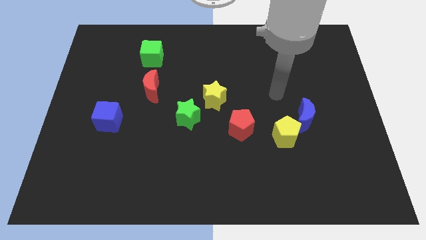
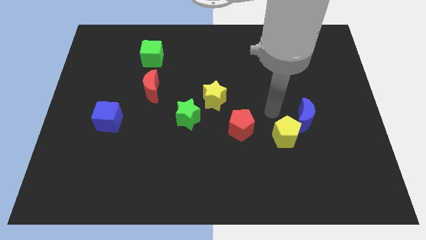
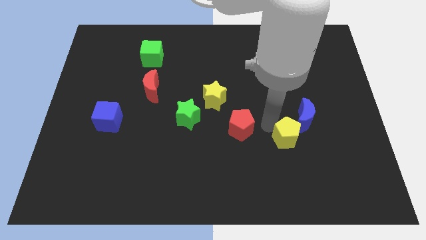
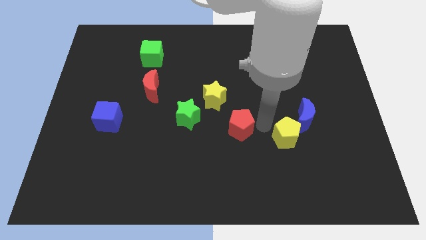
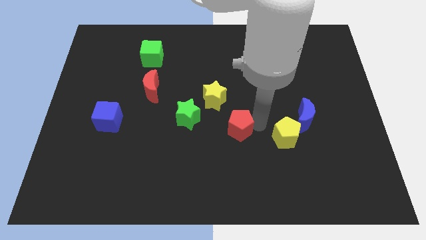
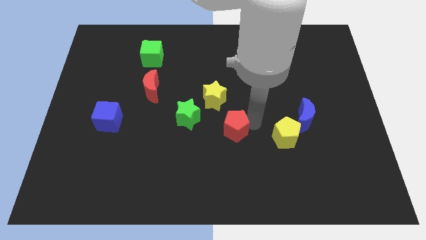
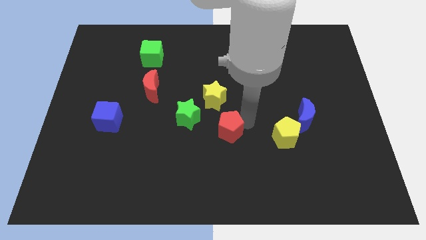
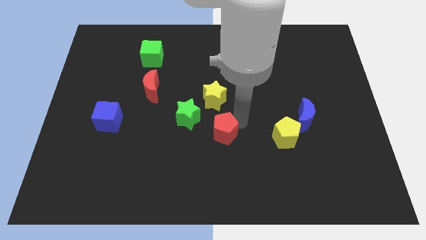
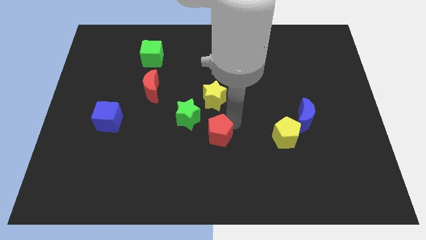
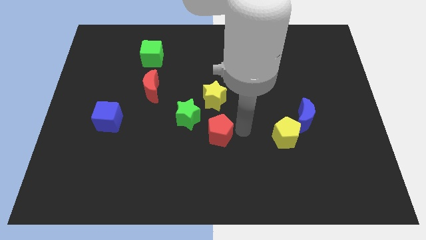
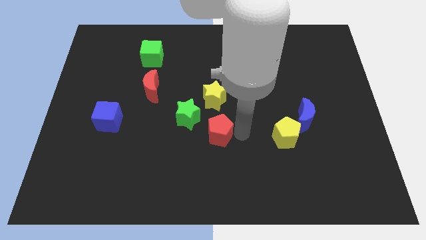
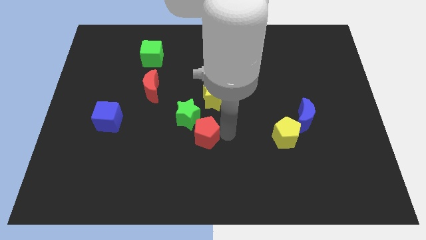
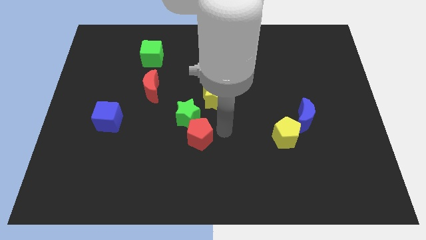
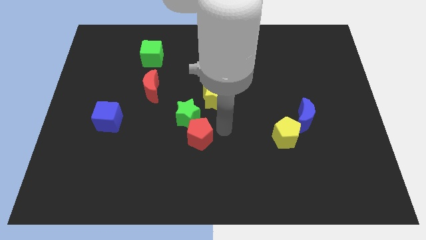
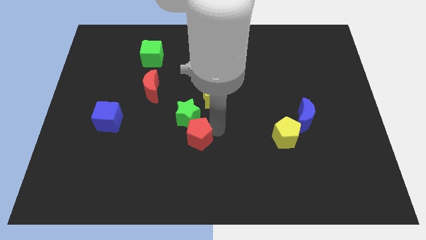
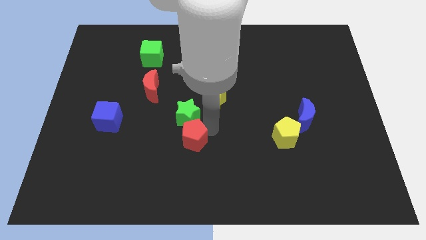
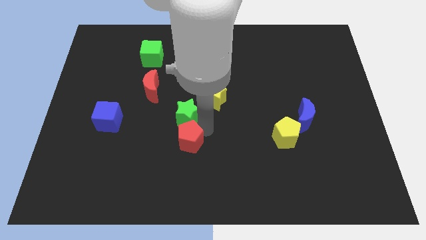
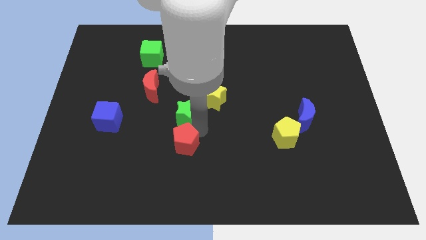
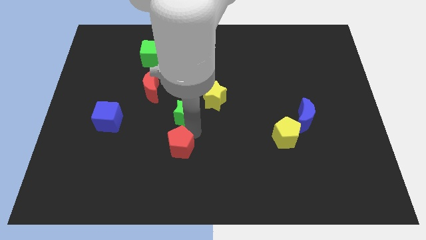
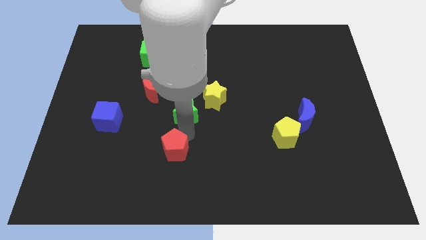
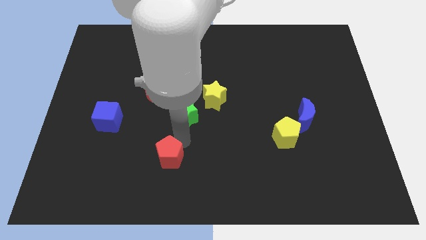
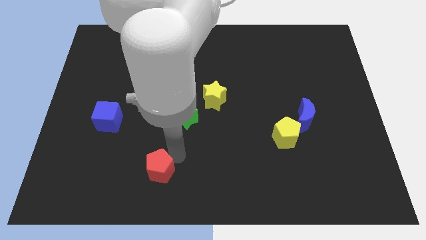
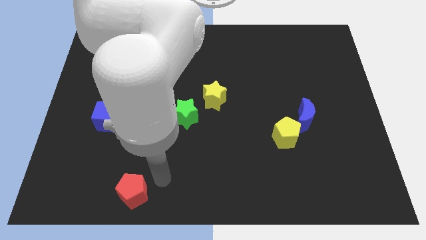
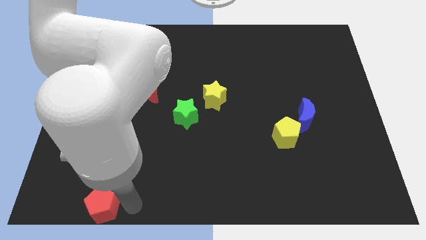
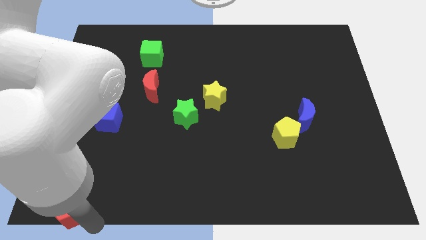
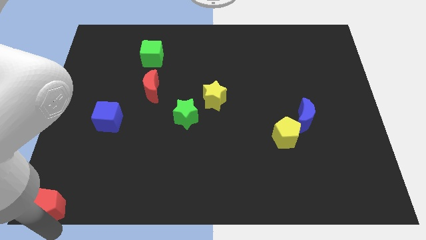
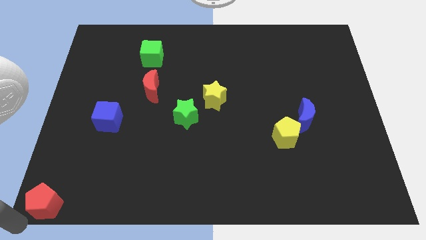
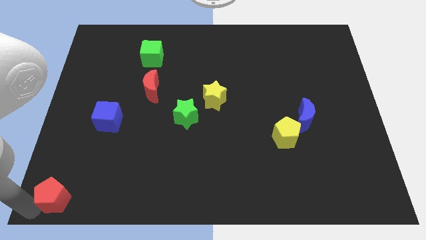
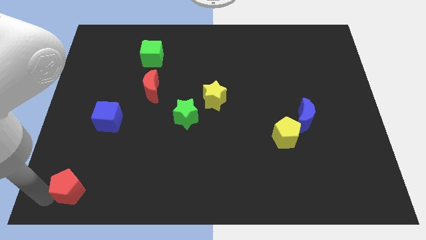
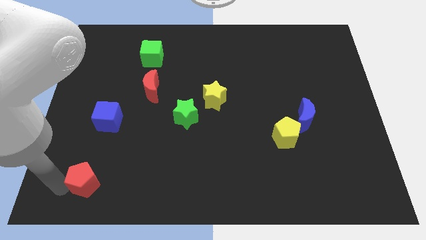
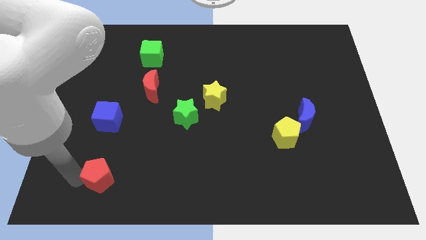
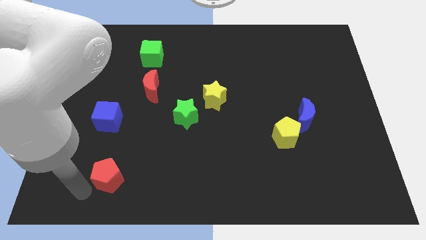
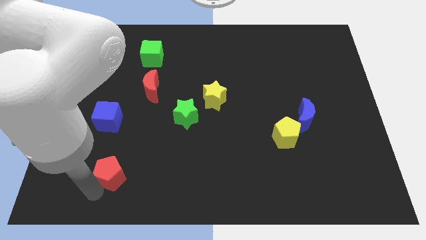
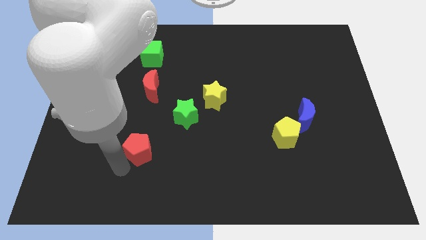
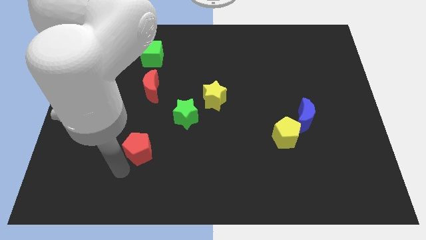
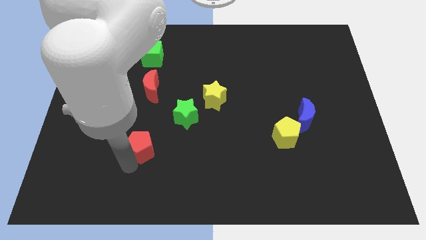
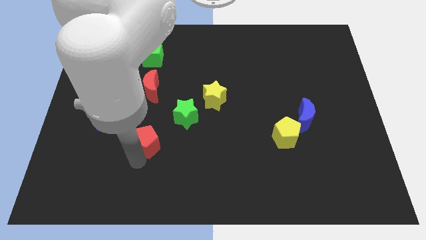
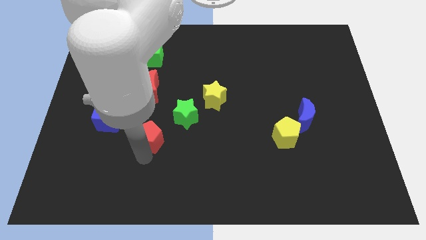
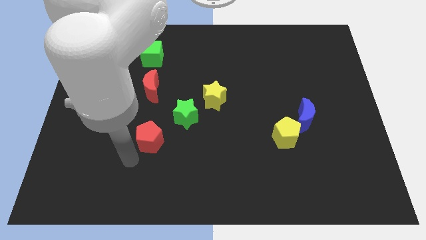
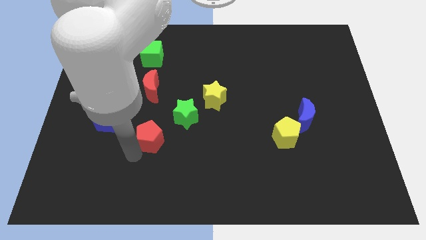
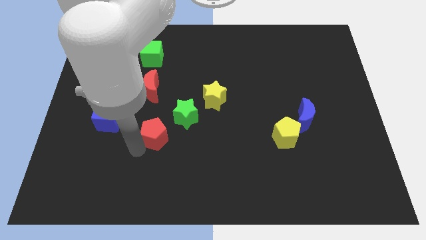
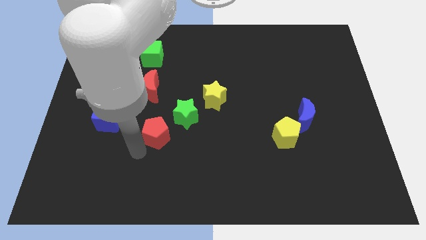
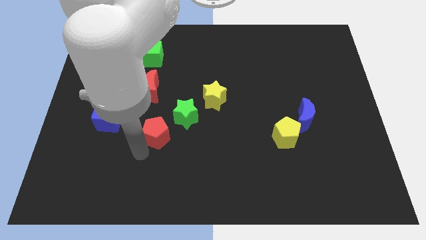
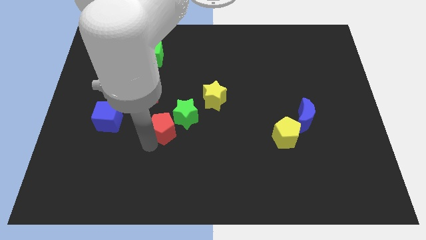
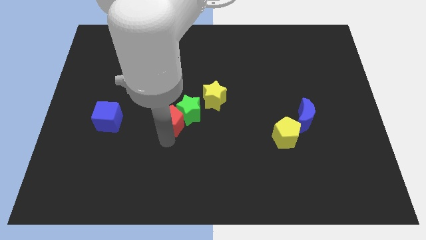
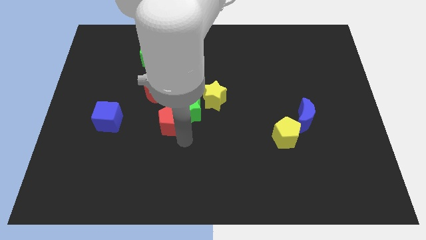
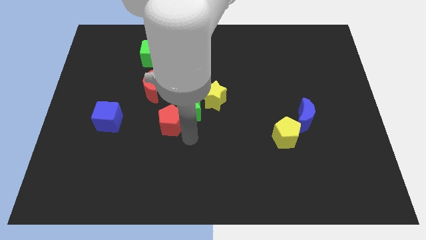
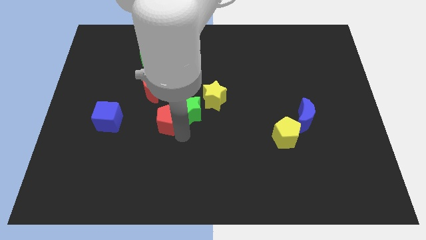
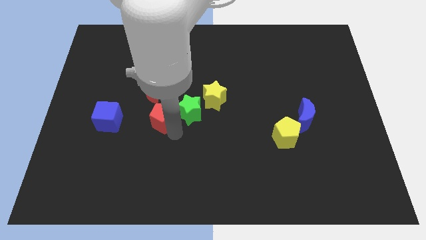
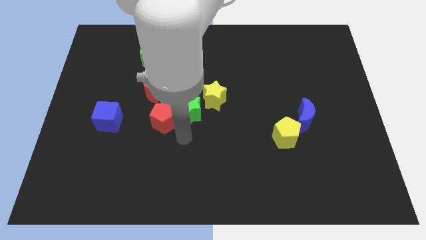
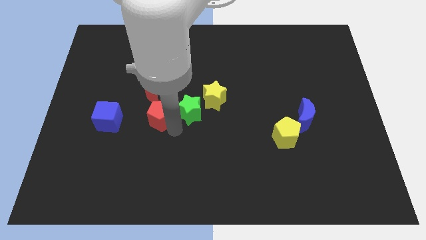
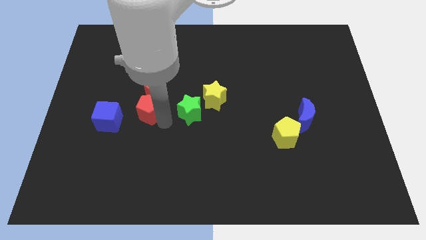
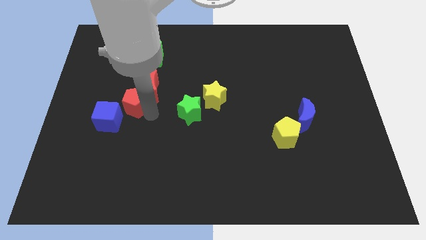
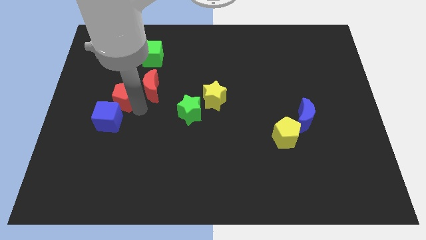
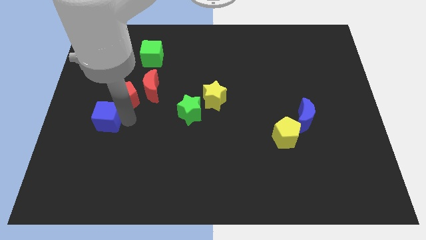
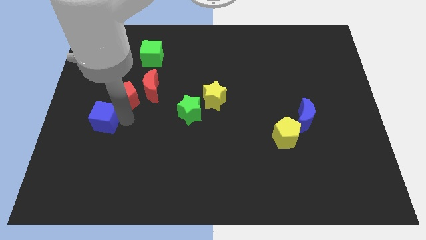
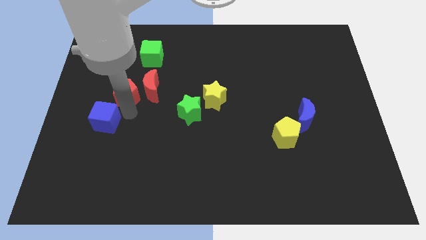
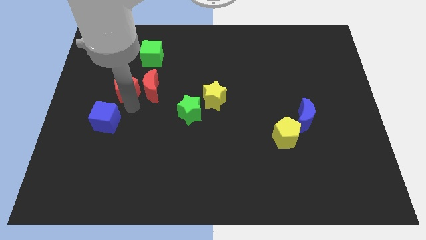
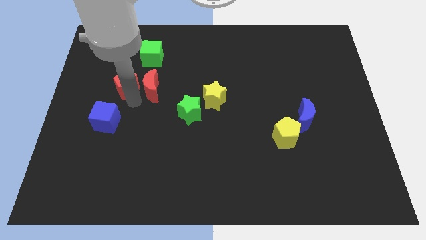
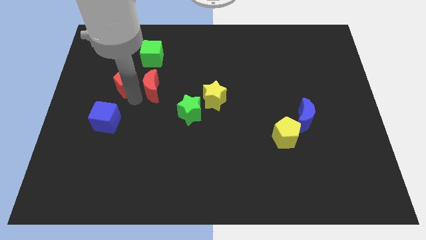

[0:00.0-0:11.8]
slide the red pentagon diagonally down and to the left of the green cube
